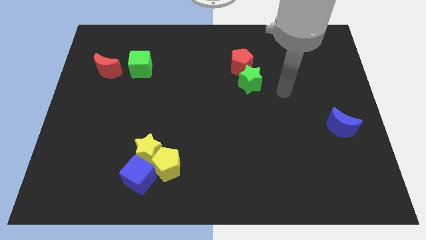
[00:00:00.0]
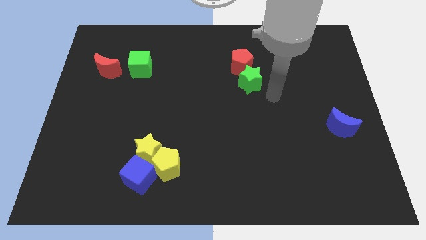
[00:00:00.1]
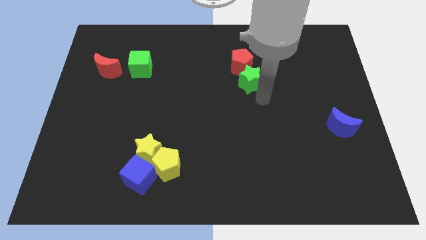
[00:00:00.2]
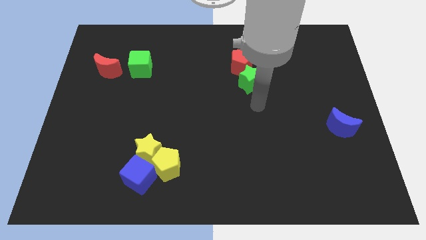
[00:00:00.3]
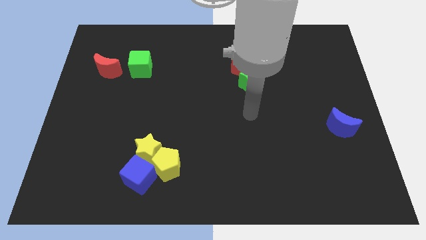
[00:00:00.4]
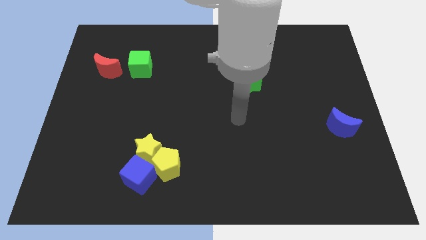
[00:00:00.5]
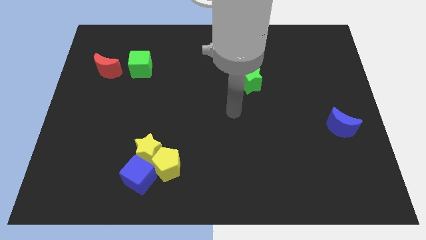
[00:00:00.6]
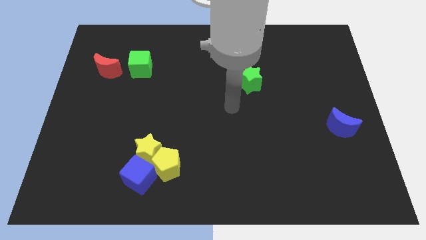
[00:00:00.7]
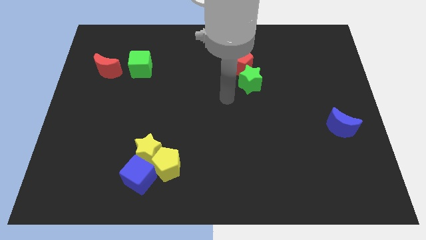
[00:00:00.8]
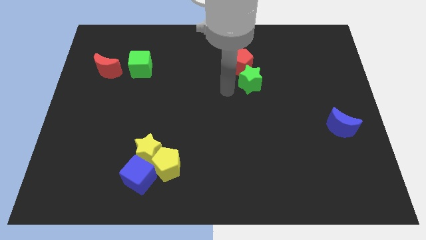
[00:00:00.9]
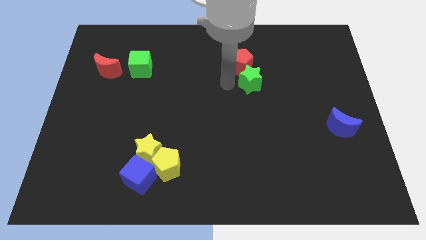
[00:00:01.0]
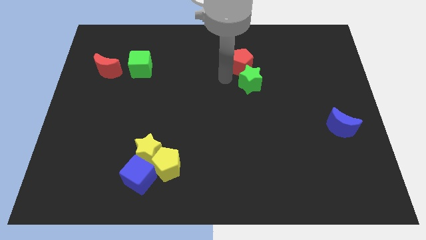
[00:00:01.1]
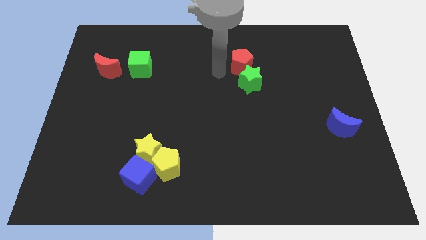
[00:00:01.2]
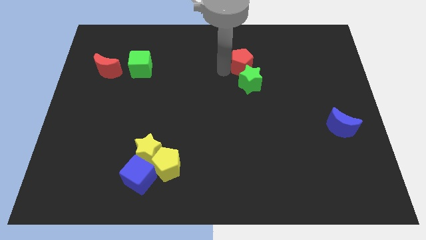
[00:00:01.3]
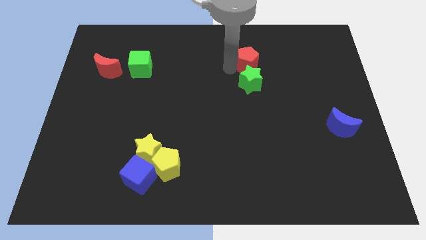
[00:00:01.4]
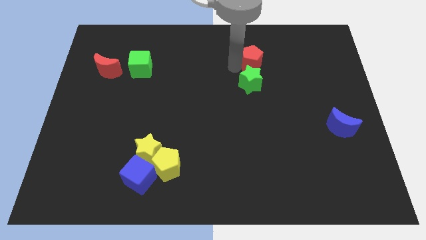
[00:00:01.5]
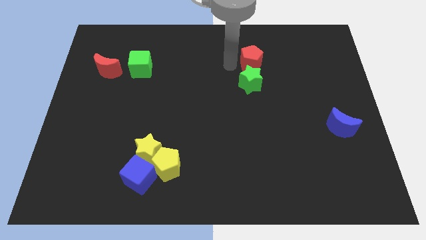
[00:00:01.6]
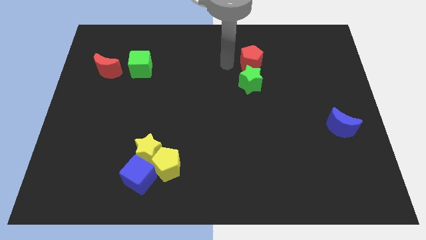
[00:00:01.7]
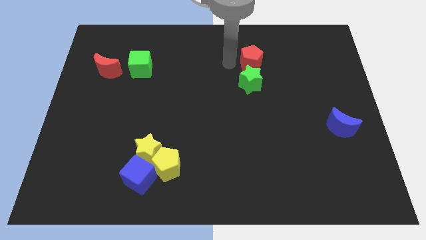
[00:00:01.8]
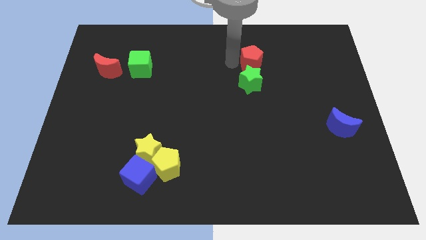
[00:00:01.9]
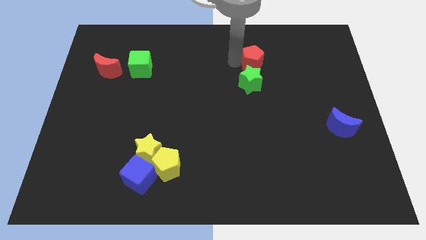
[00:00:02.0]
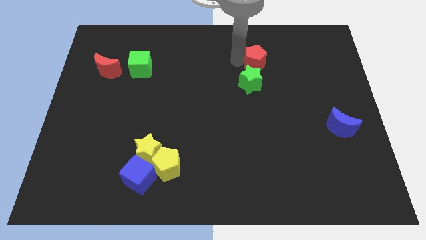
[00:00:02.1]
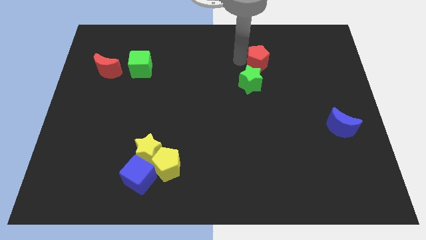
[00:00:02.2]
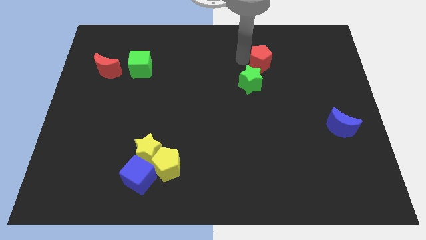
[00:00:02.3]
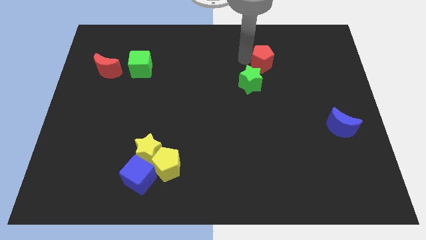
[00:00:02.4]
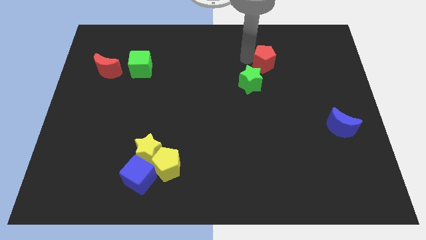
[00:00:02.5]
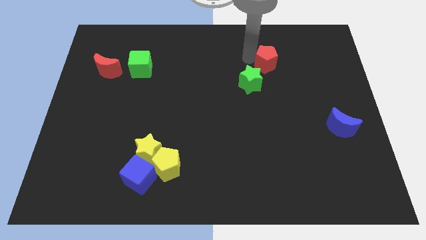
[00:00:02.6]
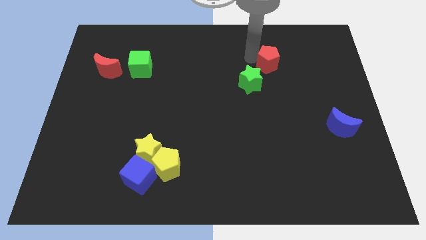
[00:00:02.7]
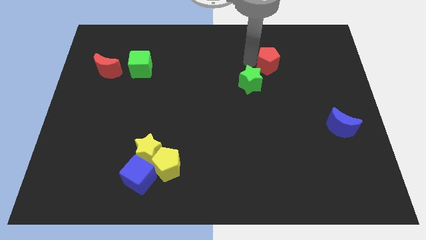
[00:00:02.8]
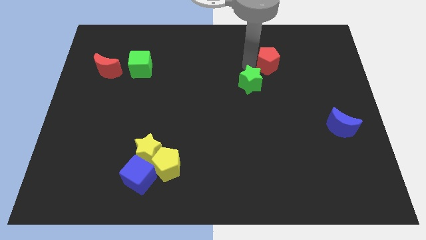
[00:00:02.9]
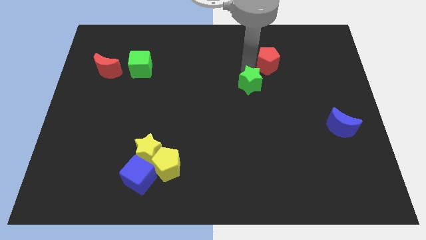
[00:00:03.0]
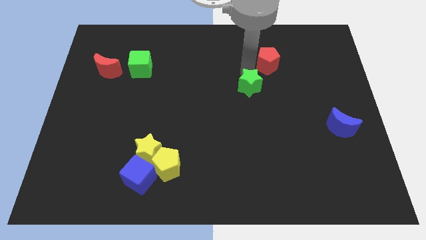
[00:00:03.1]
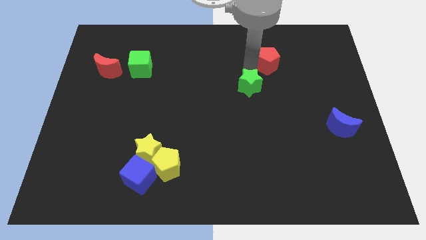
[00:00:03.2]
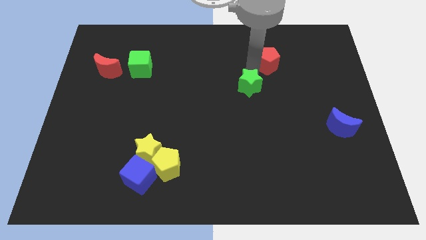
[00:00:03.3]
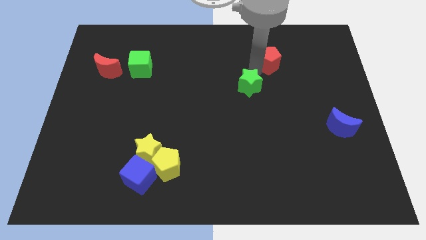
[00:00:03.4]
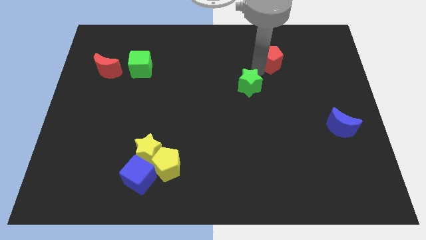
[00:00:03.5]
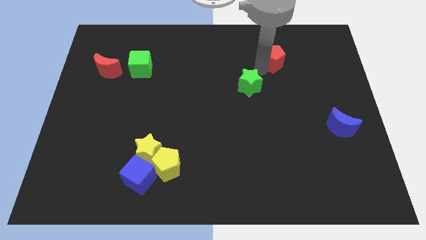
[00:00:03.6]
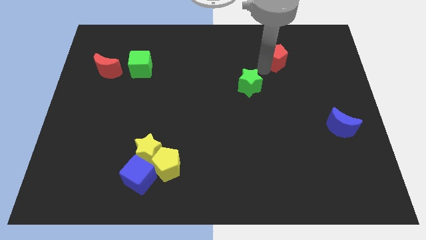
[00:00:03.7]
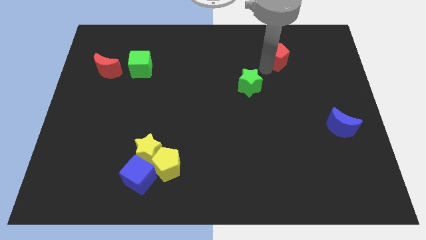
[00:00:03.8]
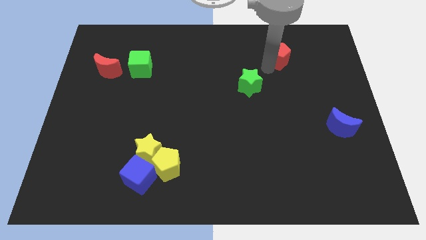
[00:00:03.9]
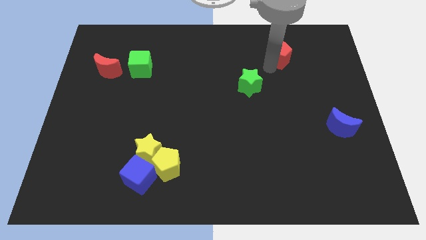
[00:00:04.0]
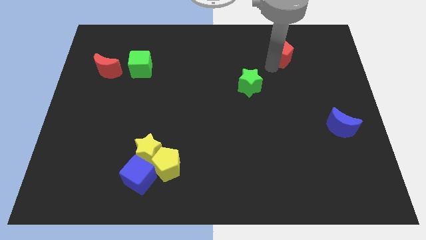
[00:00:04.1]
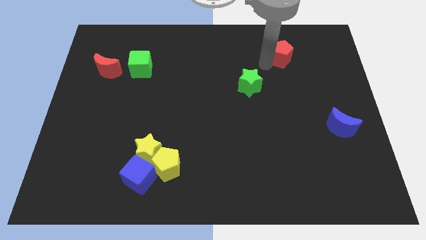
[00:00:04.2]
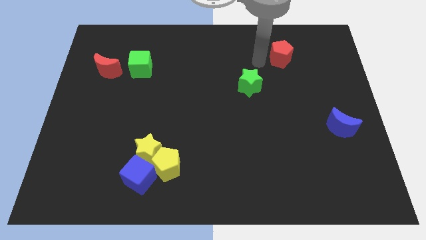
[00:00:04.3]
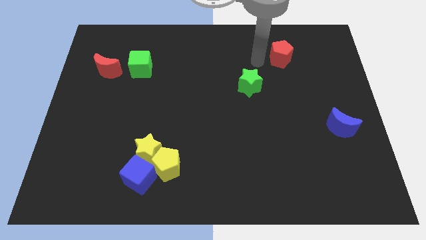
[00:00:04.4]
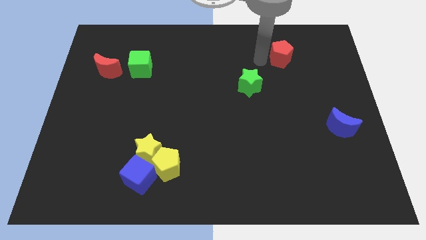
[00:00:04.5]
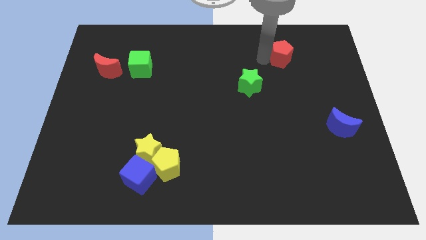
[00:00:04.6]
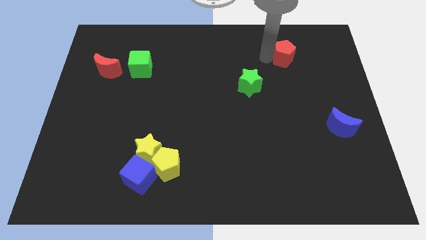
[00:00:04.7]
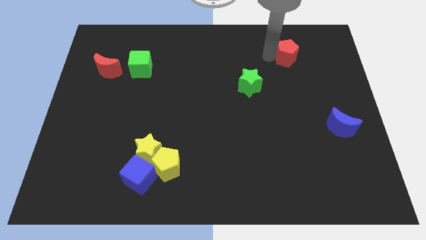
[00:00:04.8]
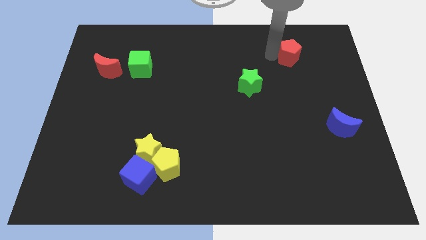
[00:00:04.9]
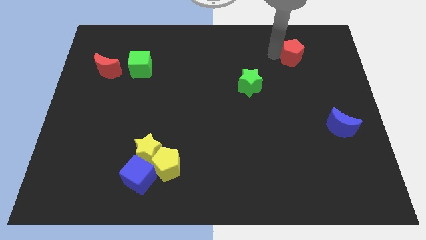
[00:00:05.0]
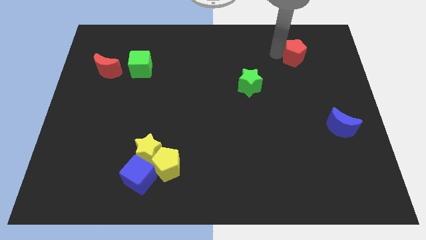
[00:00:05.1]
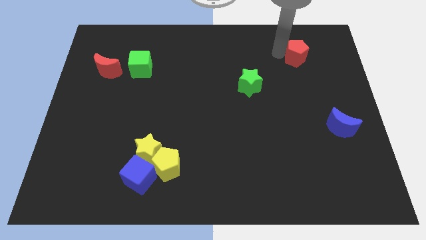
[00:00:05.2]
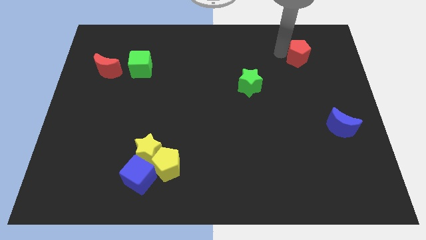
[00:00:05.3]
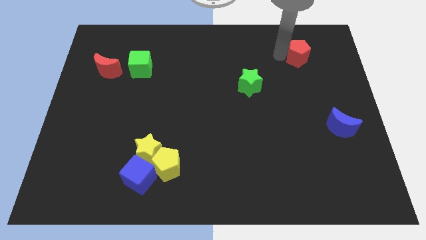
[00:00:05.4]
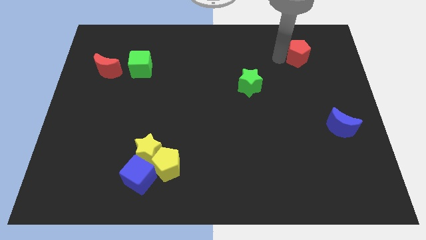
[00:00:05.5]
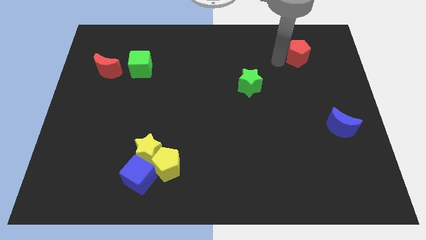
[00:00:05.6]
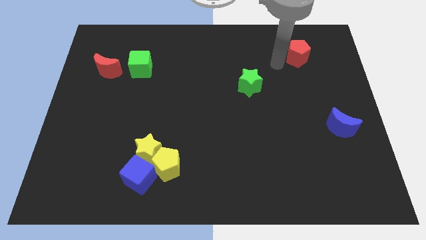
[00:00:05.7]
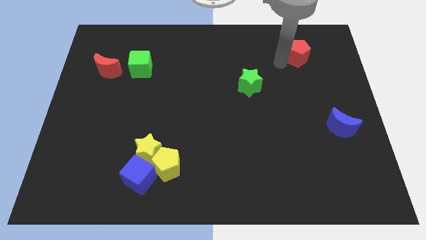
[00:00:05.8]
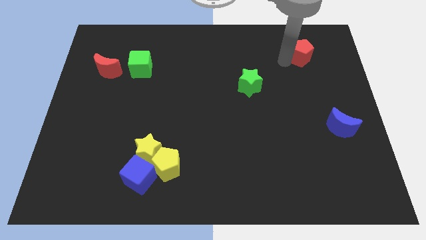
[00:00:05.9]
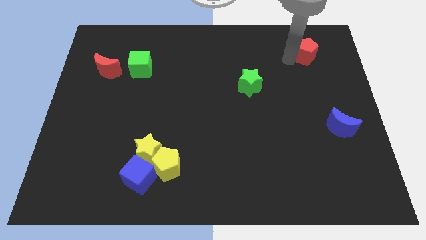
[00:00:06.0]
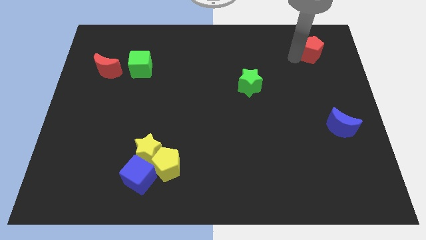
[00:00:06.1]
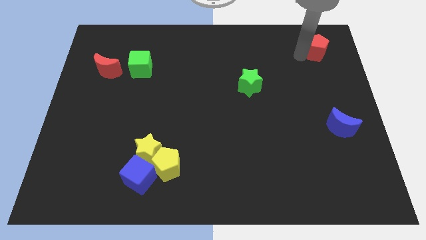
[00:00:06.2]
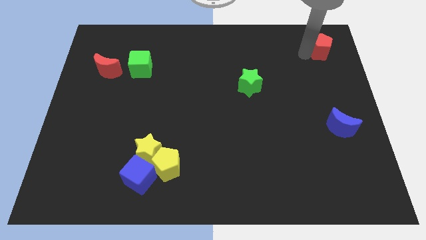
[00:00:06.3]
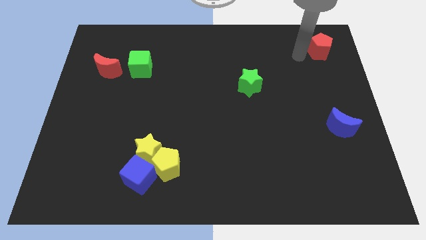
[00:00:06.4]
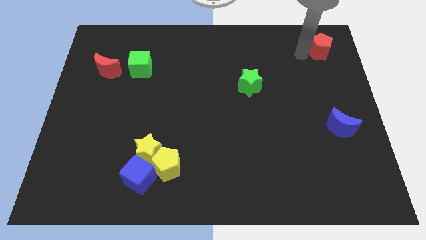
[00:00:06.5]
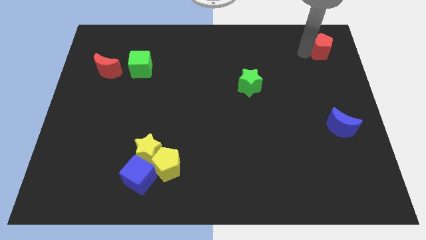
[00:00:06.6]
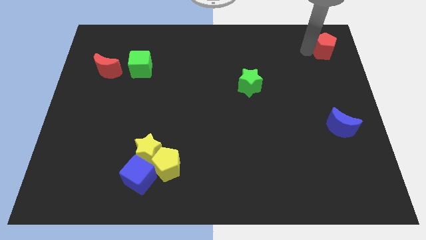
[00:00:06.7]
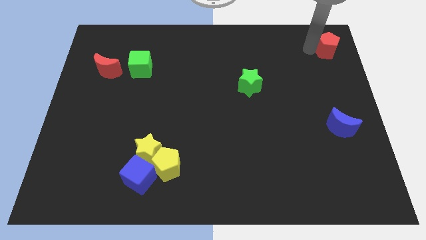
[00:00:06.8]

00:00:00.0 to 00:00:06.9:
move the red pentagon to the upper right corner
